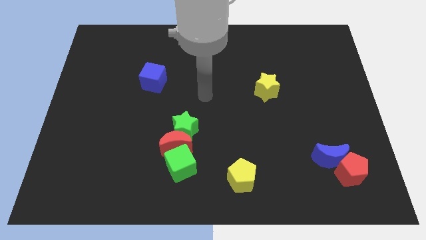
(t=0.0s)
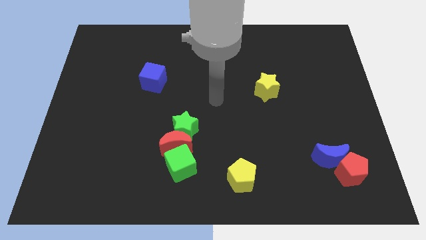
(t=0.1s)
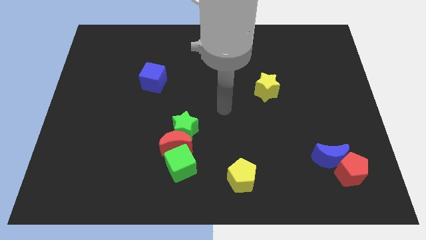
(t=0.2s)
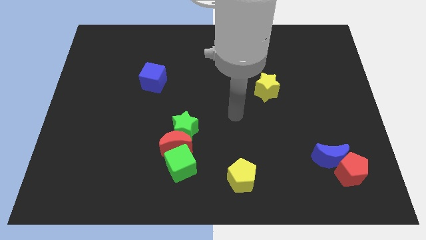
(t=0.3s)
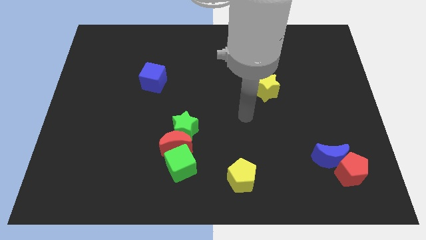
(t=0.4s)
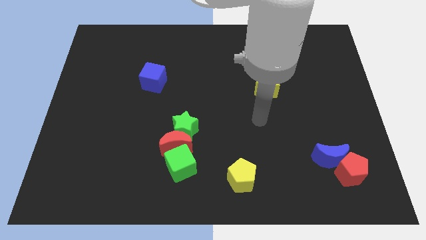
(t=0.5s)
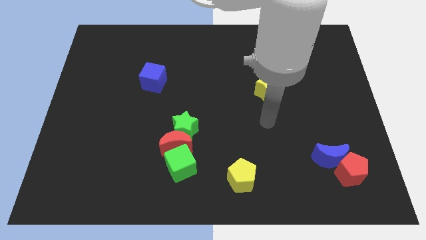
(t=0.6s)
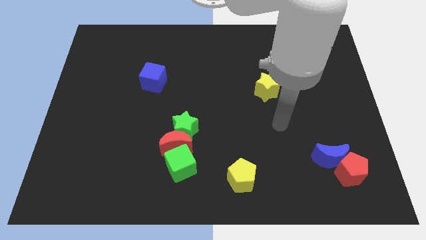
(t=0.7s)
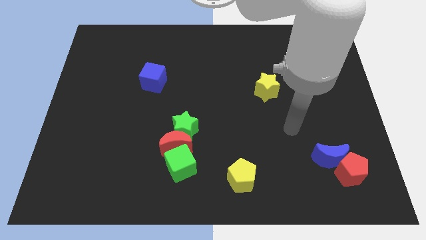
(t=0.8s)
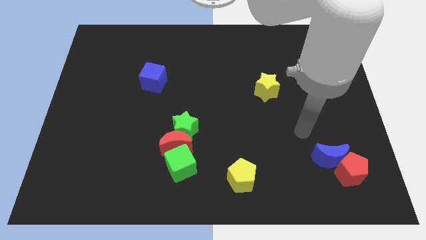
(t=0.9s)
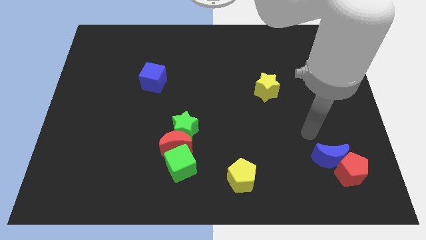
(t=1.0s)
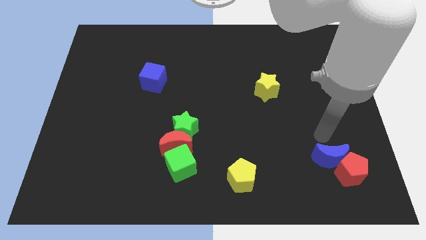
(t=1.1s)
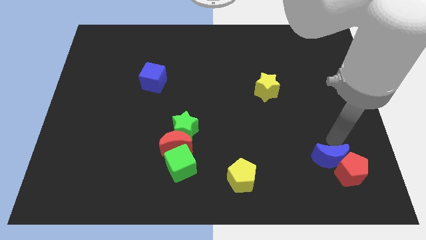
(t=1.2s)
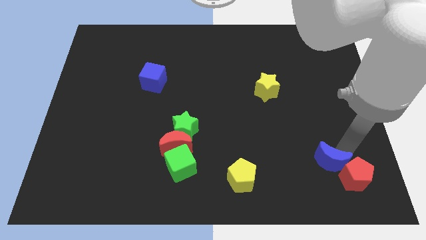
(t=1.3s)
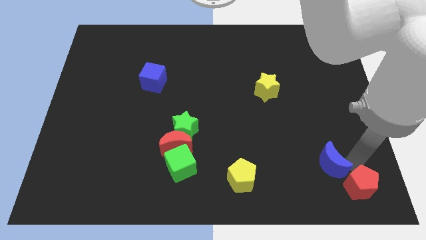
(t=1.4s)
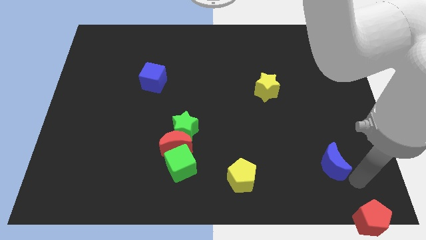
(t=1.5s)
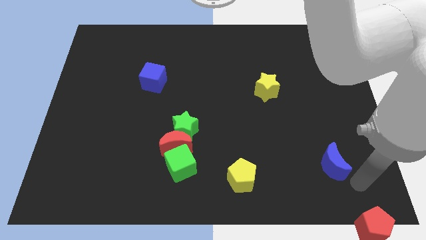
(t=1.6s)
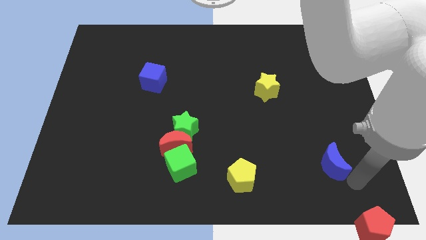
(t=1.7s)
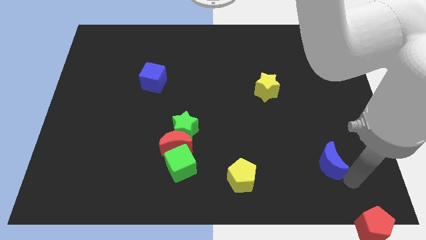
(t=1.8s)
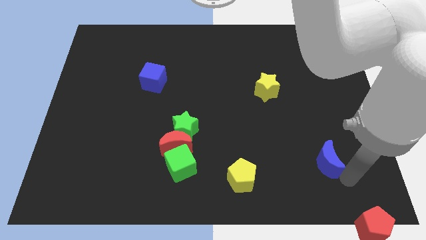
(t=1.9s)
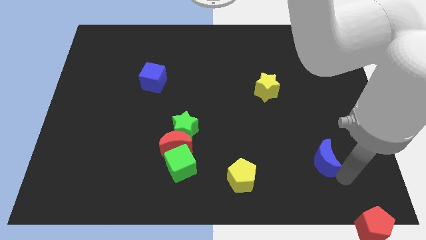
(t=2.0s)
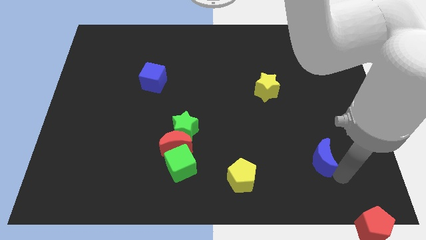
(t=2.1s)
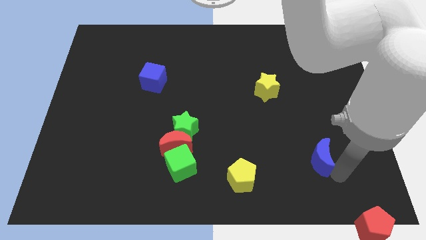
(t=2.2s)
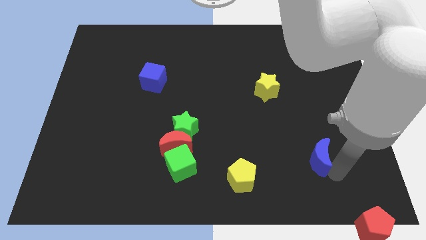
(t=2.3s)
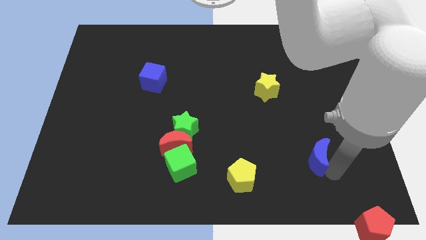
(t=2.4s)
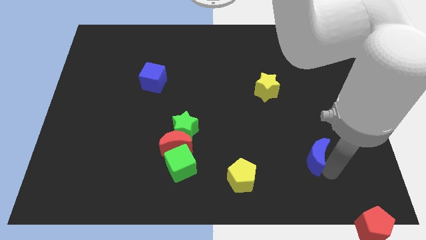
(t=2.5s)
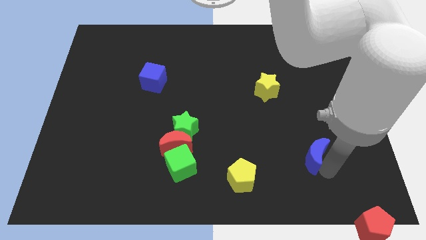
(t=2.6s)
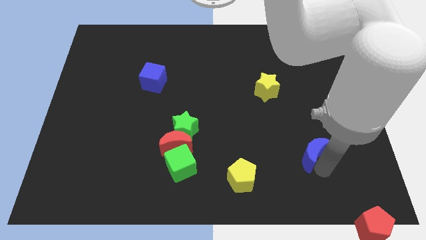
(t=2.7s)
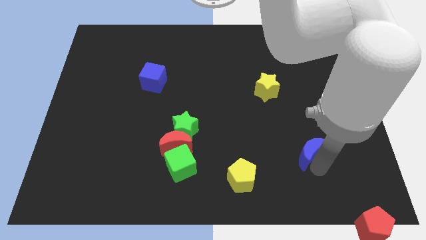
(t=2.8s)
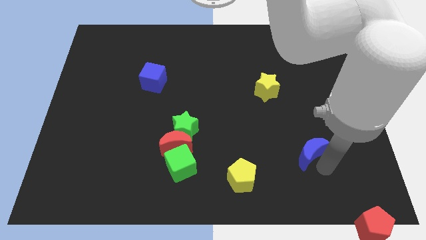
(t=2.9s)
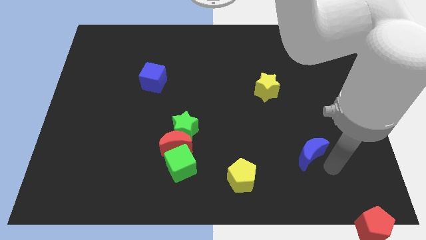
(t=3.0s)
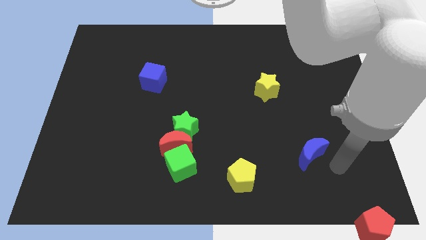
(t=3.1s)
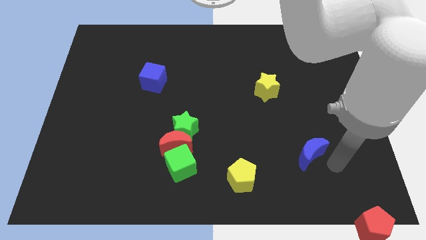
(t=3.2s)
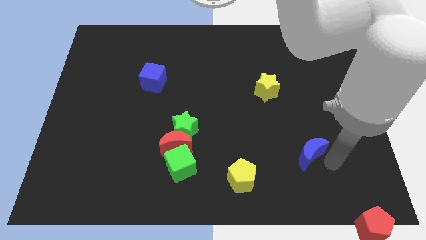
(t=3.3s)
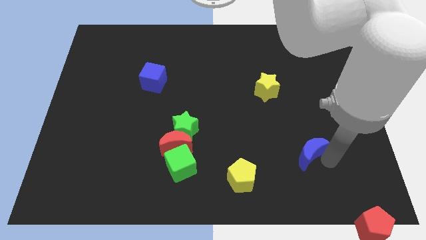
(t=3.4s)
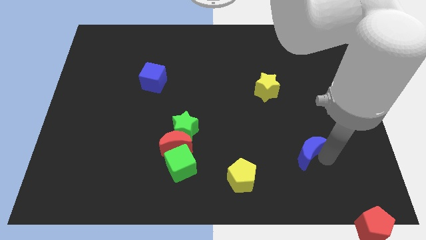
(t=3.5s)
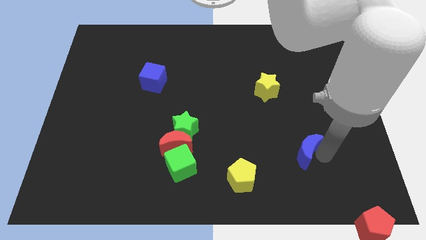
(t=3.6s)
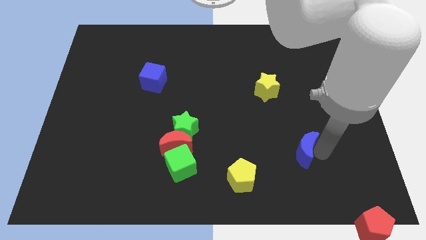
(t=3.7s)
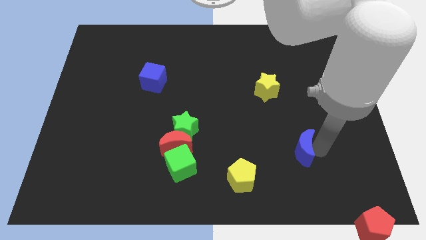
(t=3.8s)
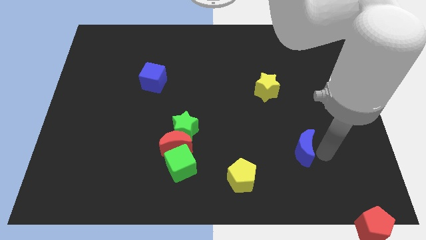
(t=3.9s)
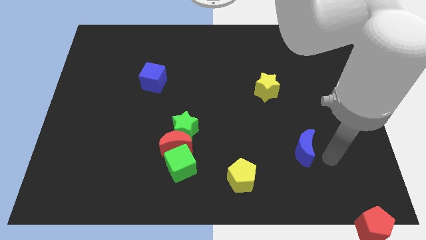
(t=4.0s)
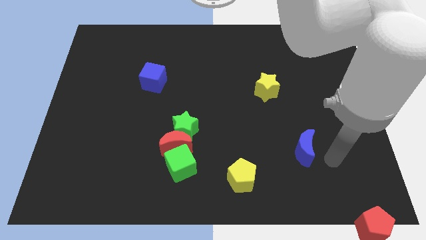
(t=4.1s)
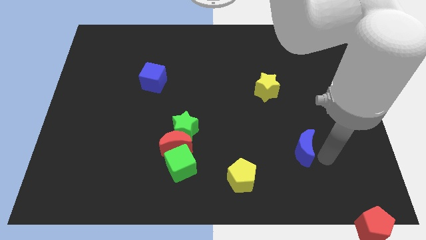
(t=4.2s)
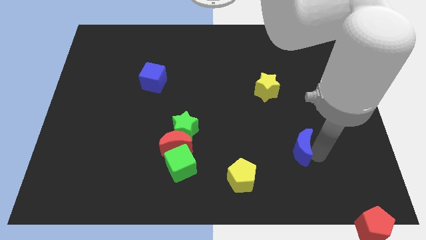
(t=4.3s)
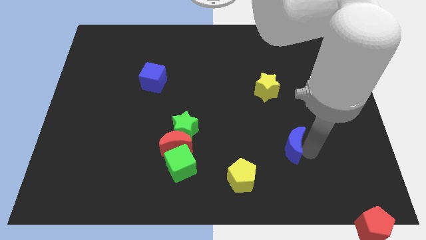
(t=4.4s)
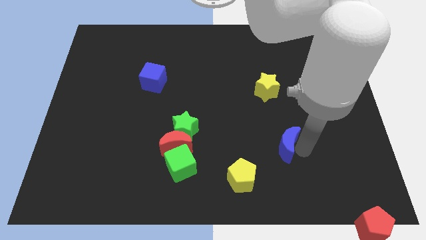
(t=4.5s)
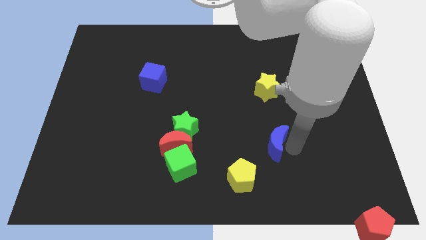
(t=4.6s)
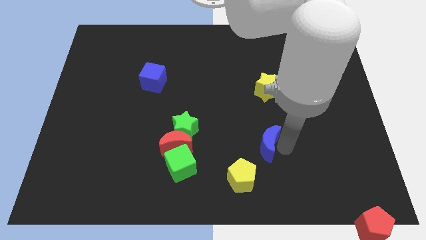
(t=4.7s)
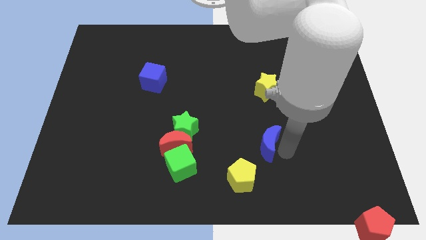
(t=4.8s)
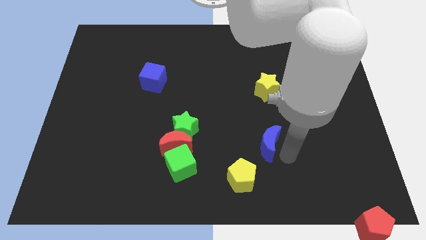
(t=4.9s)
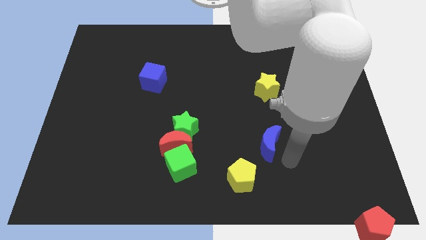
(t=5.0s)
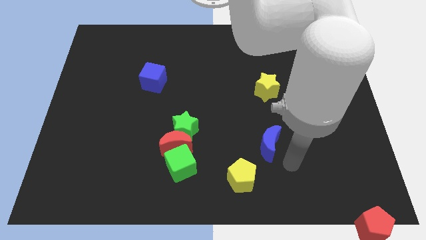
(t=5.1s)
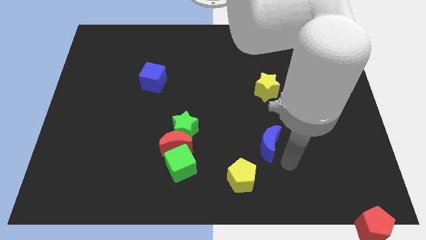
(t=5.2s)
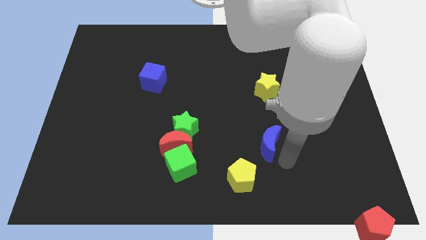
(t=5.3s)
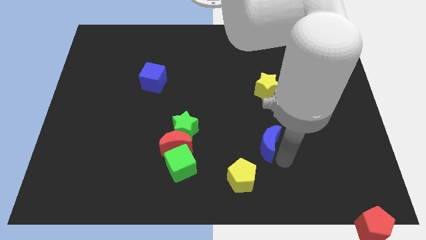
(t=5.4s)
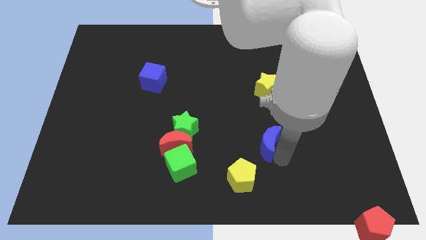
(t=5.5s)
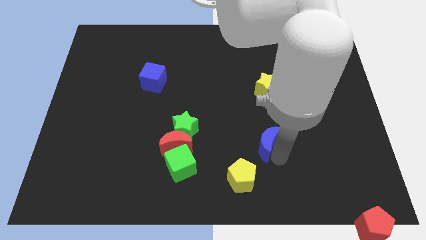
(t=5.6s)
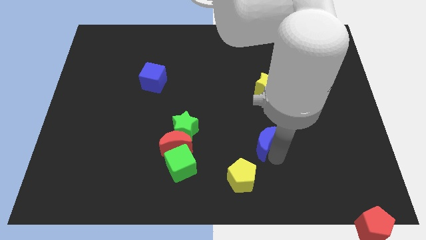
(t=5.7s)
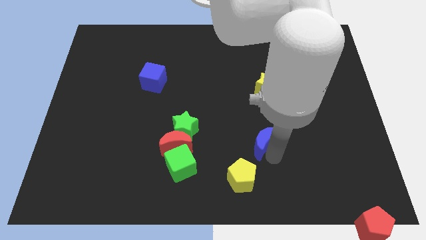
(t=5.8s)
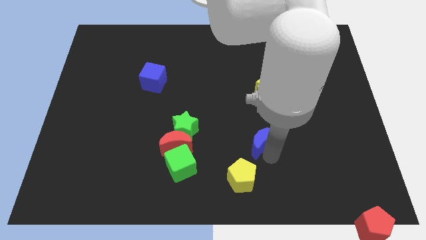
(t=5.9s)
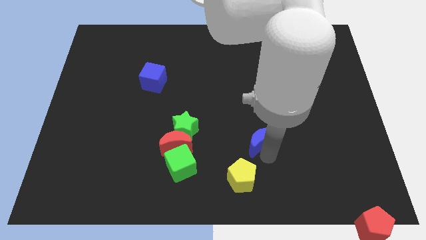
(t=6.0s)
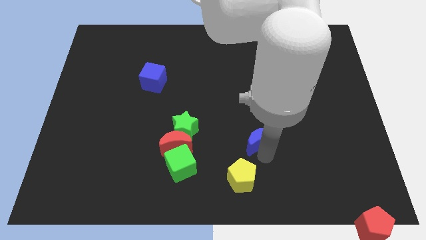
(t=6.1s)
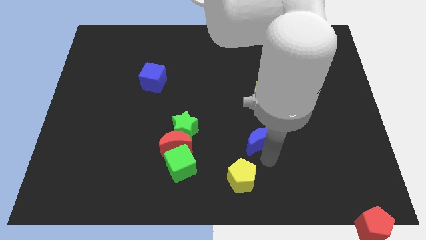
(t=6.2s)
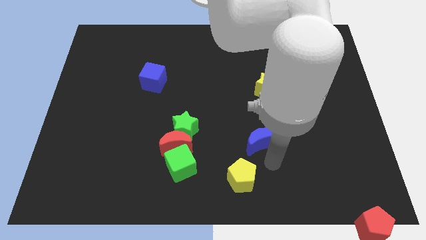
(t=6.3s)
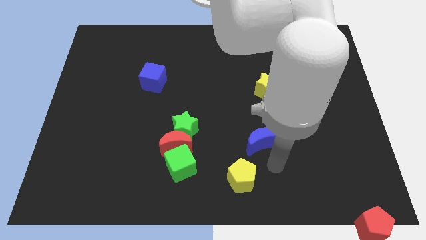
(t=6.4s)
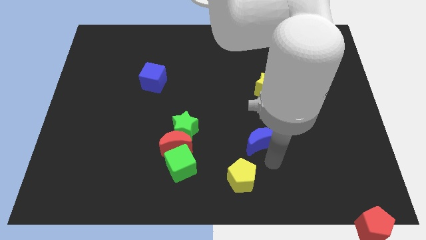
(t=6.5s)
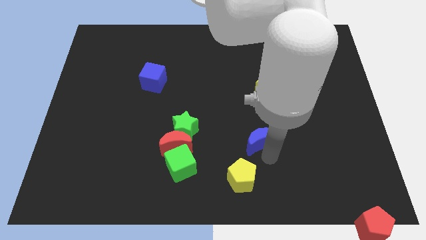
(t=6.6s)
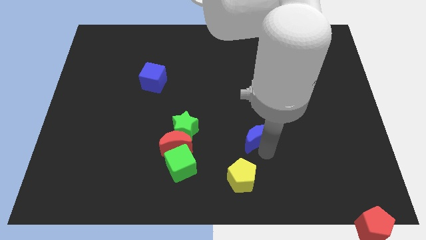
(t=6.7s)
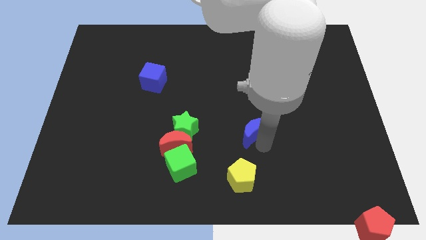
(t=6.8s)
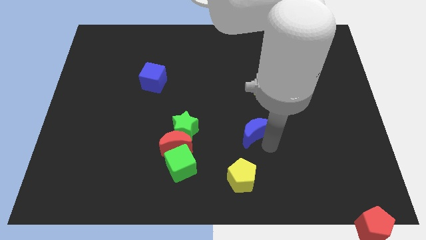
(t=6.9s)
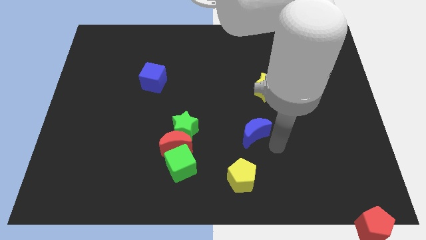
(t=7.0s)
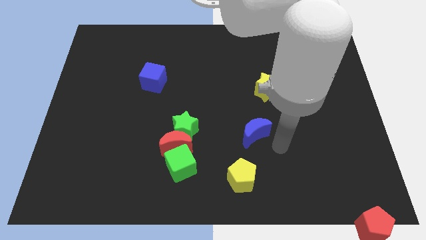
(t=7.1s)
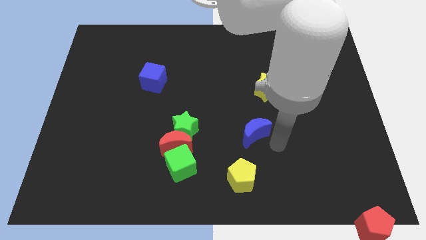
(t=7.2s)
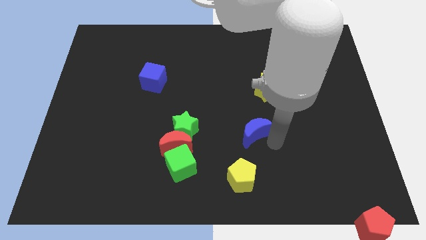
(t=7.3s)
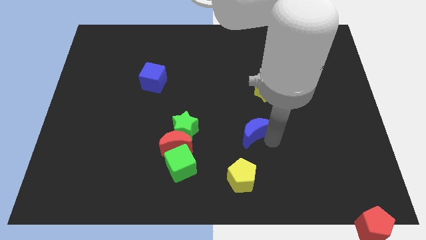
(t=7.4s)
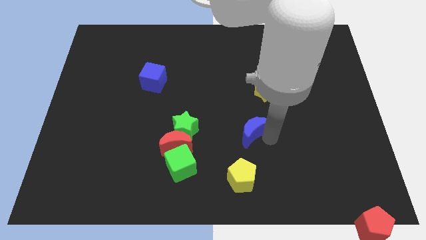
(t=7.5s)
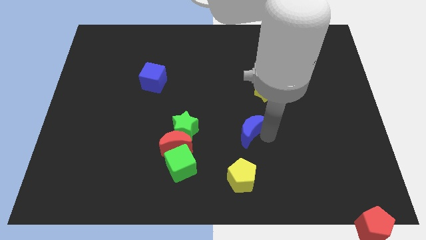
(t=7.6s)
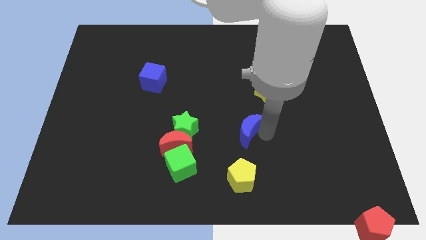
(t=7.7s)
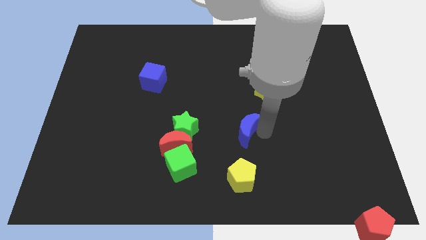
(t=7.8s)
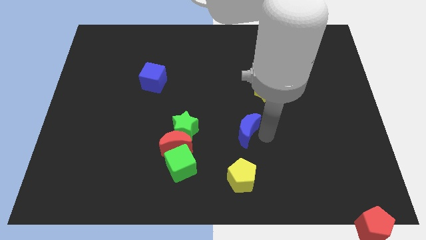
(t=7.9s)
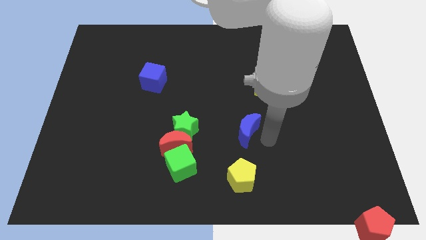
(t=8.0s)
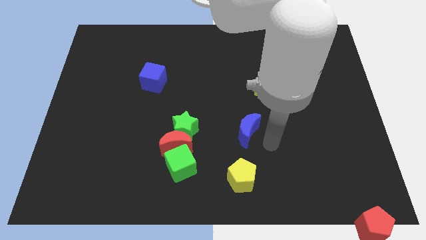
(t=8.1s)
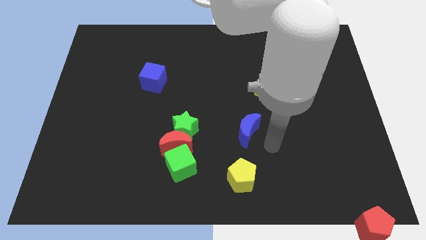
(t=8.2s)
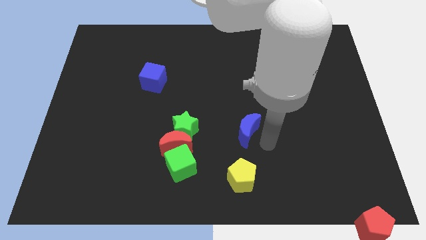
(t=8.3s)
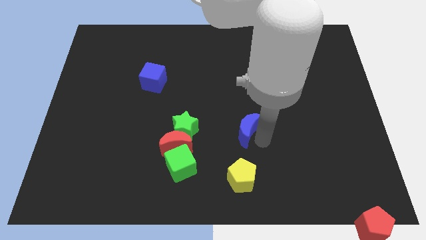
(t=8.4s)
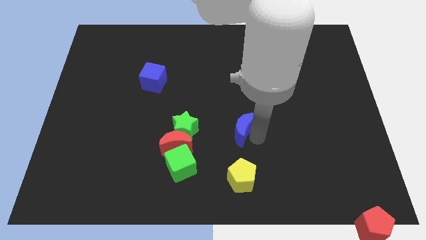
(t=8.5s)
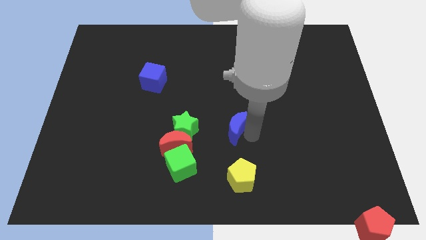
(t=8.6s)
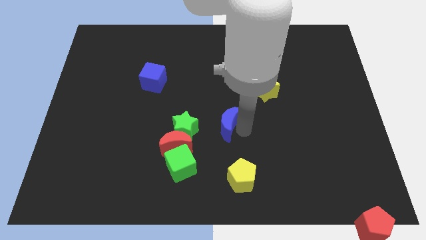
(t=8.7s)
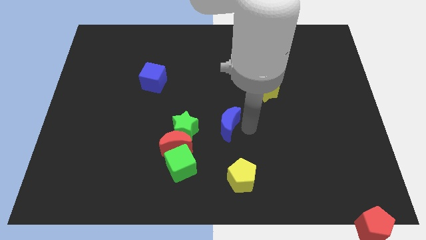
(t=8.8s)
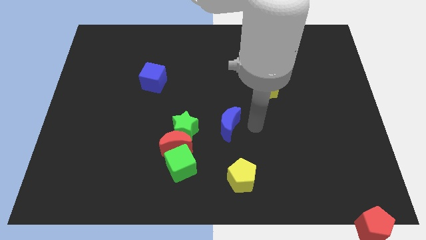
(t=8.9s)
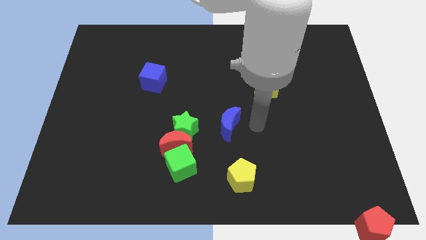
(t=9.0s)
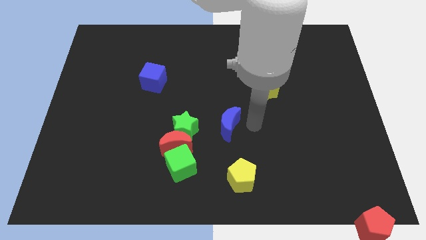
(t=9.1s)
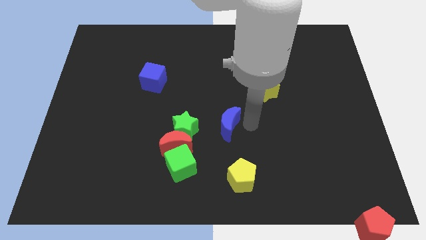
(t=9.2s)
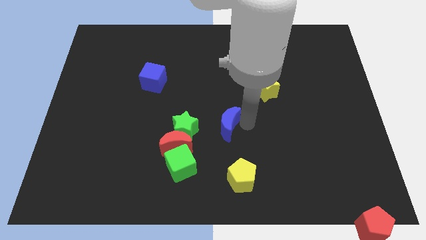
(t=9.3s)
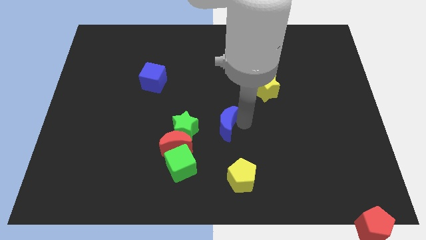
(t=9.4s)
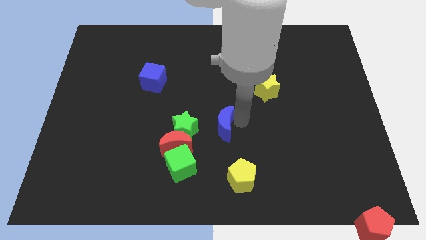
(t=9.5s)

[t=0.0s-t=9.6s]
slide the blue moon to the top right of the red moon
